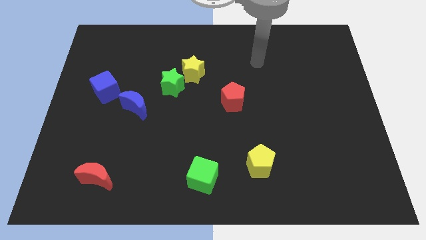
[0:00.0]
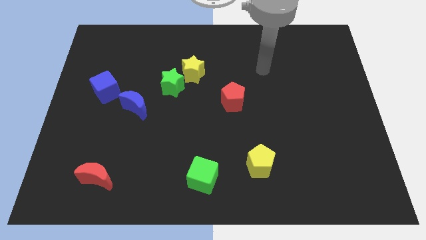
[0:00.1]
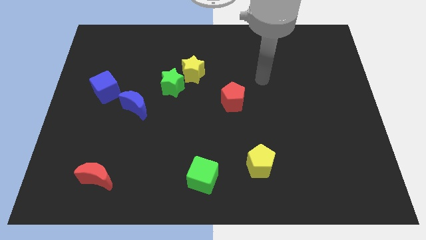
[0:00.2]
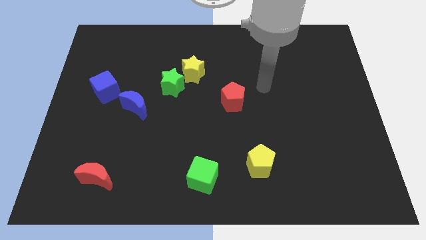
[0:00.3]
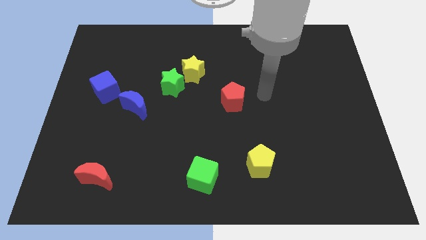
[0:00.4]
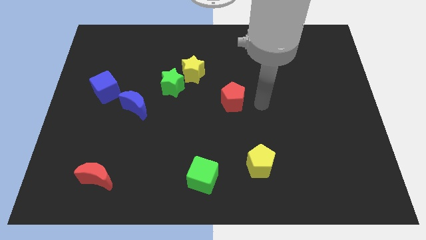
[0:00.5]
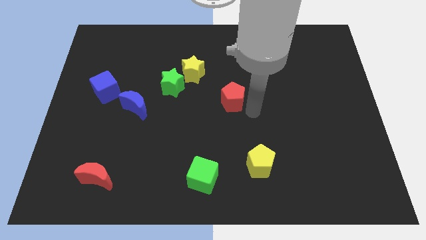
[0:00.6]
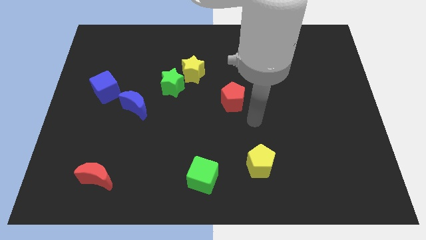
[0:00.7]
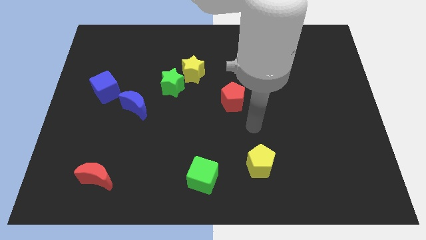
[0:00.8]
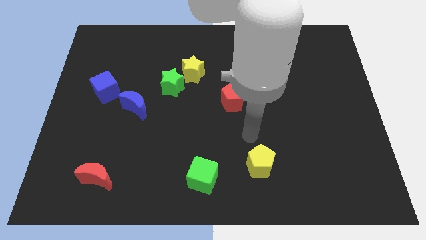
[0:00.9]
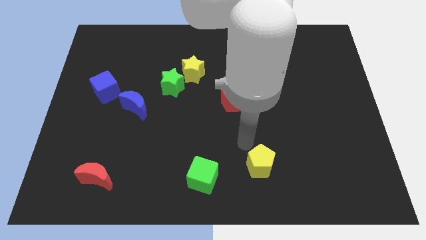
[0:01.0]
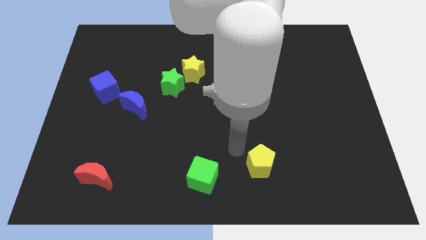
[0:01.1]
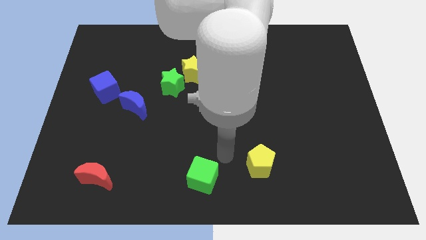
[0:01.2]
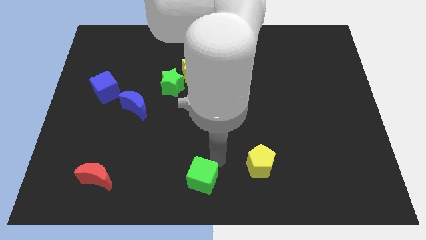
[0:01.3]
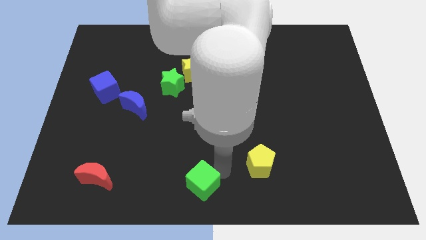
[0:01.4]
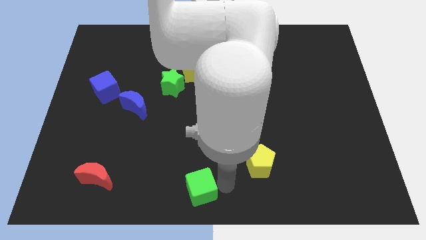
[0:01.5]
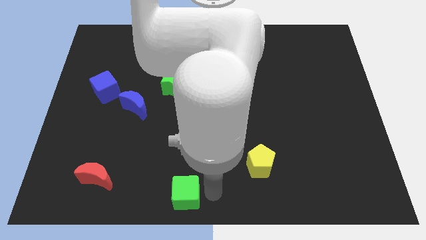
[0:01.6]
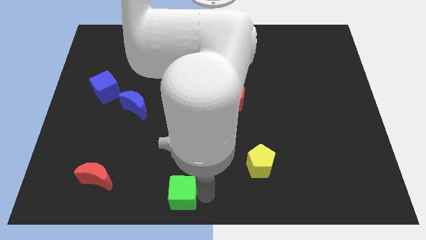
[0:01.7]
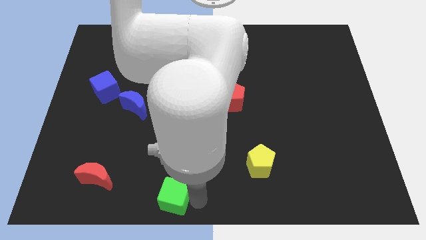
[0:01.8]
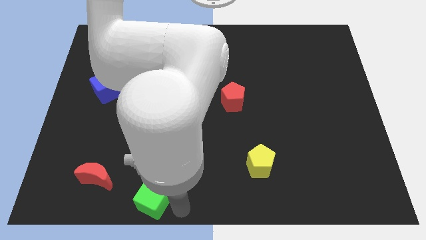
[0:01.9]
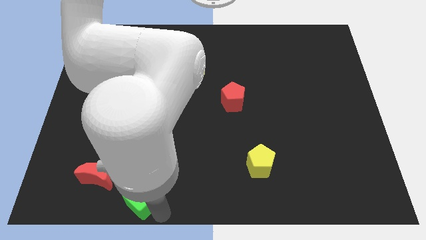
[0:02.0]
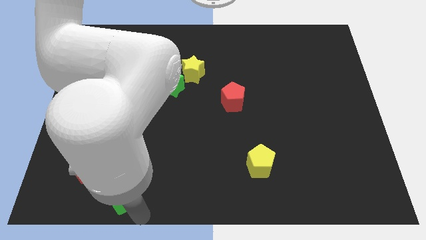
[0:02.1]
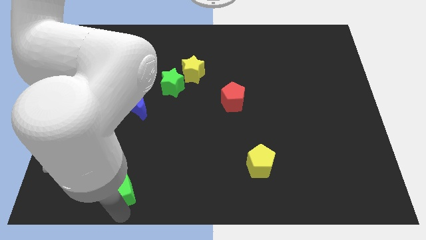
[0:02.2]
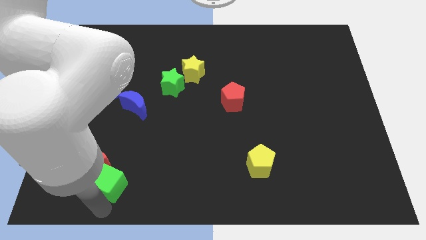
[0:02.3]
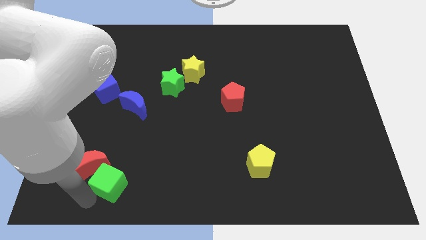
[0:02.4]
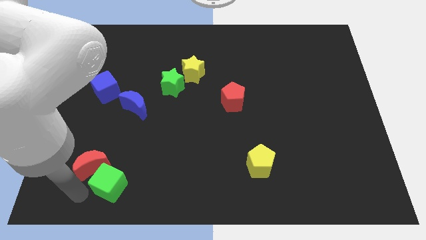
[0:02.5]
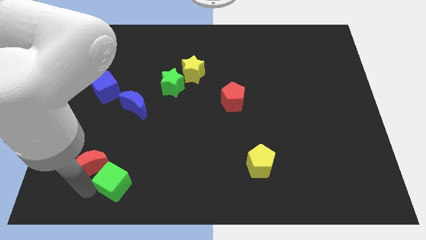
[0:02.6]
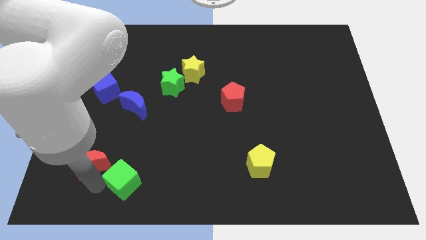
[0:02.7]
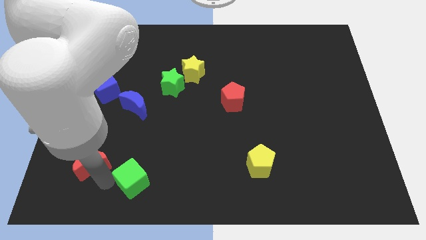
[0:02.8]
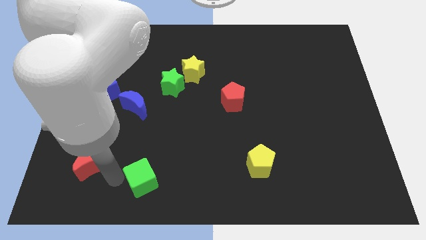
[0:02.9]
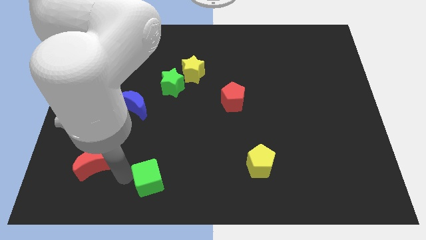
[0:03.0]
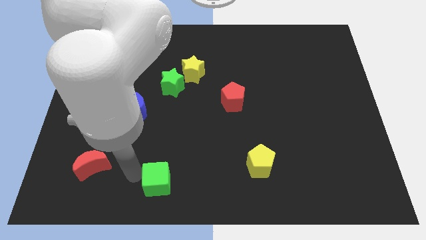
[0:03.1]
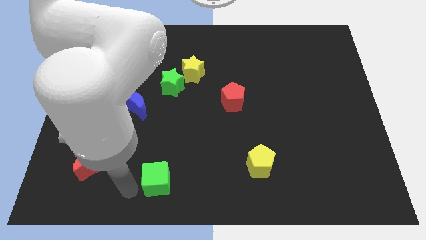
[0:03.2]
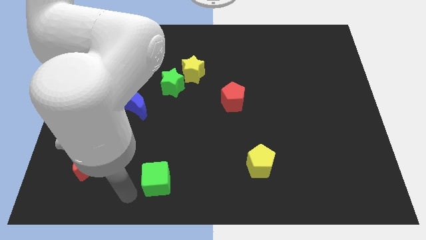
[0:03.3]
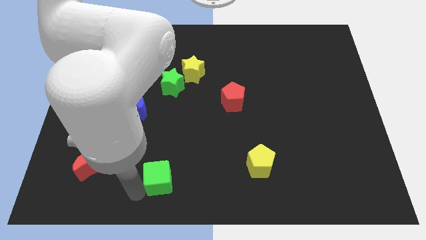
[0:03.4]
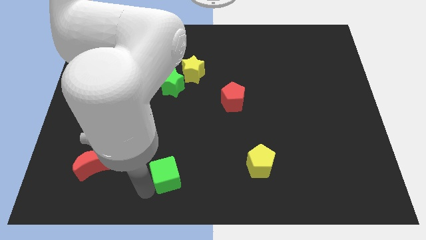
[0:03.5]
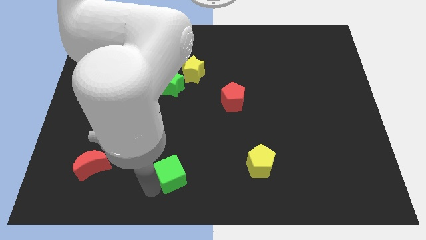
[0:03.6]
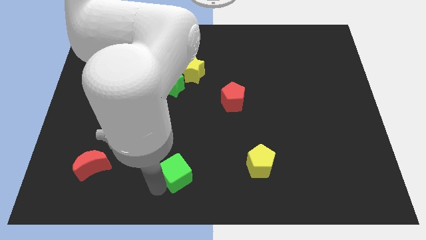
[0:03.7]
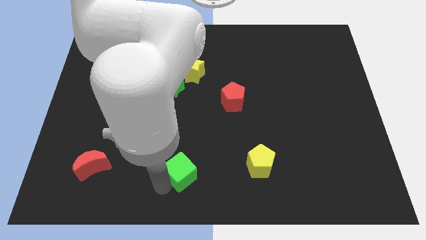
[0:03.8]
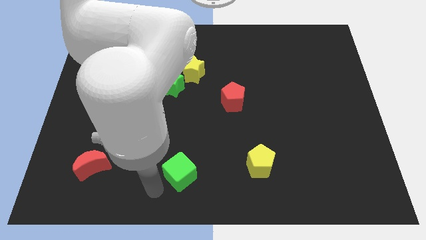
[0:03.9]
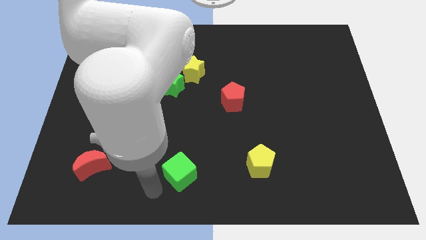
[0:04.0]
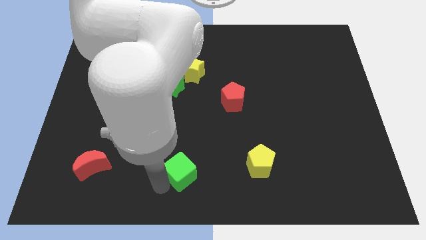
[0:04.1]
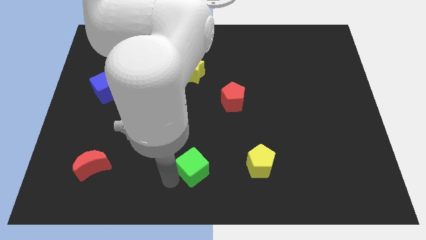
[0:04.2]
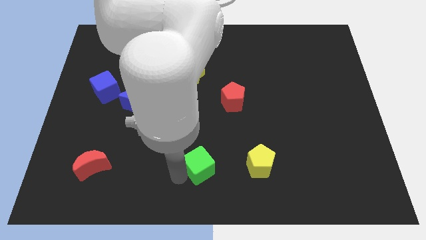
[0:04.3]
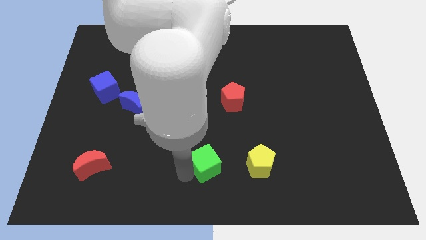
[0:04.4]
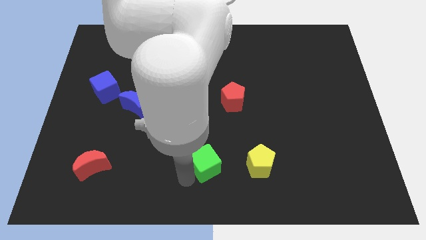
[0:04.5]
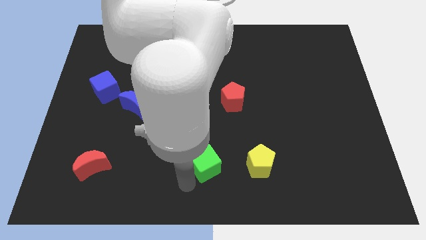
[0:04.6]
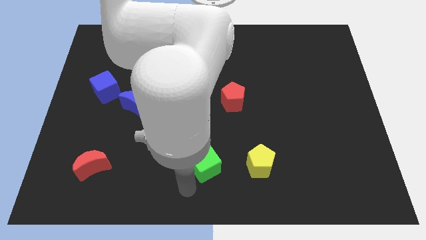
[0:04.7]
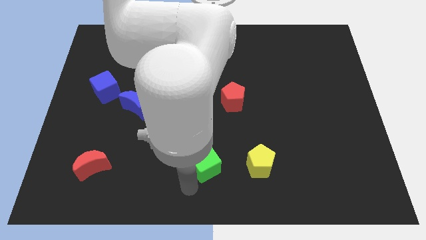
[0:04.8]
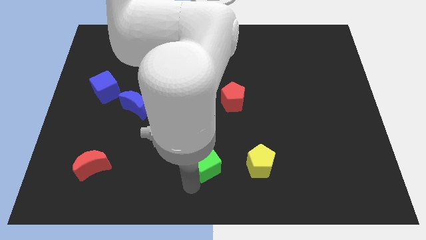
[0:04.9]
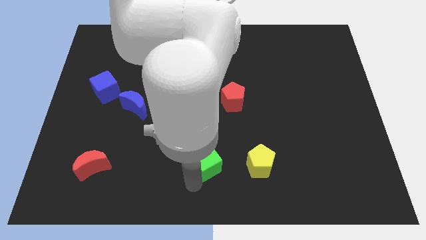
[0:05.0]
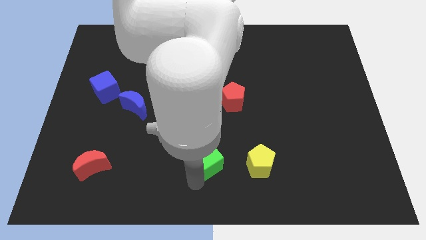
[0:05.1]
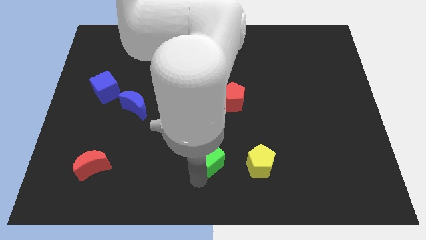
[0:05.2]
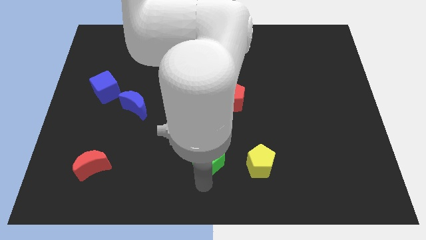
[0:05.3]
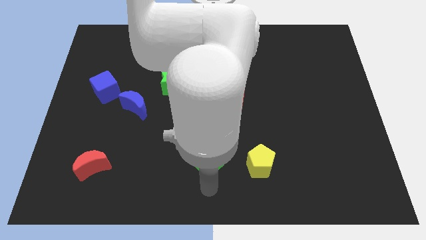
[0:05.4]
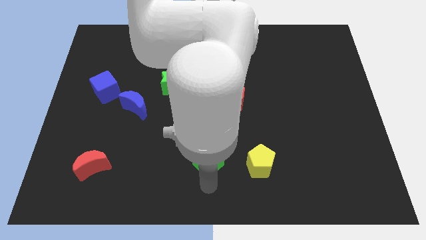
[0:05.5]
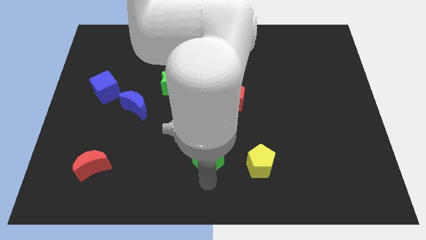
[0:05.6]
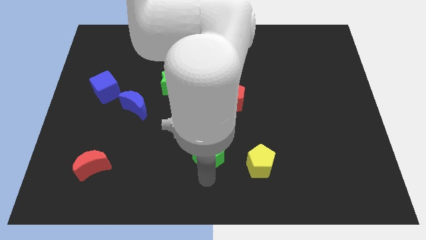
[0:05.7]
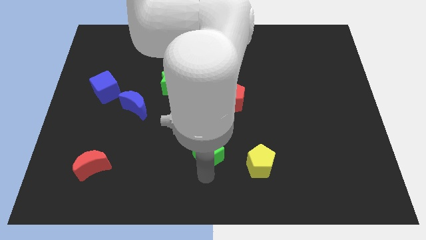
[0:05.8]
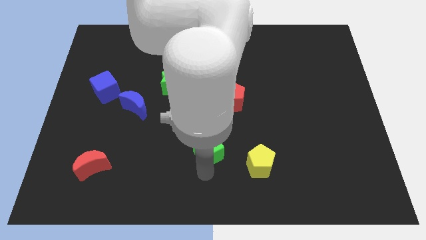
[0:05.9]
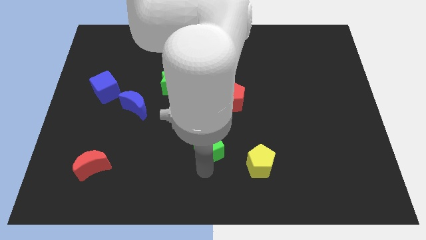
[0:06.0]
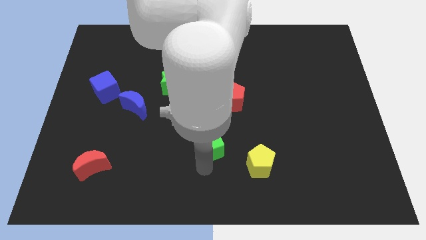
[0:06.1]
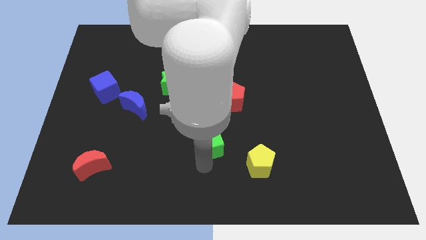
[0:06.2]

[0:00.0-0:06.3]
push the green cube to the center

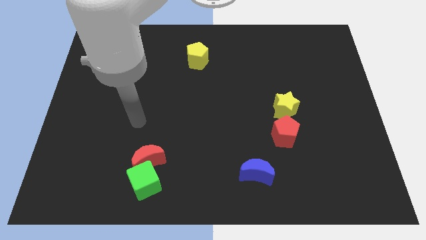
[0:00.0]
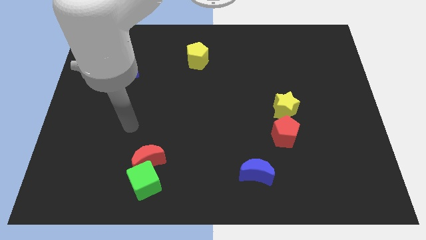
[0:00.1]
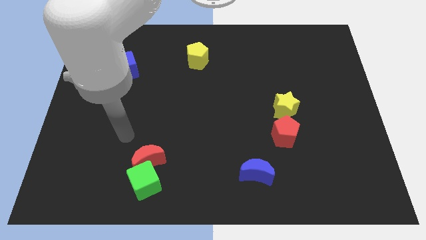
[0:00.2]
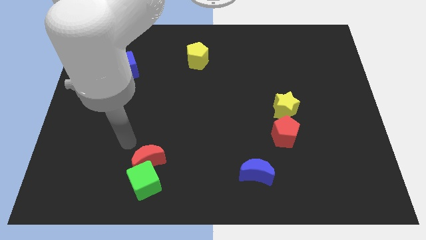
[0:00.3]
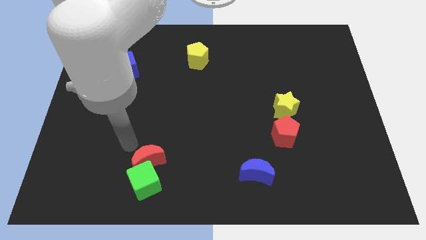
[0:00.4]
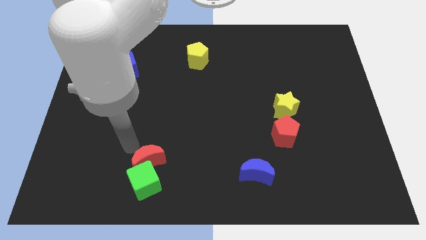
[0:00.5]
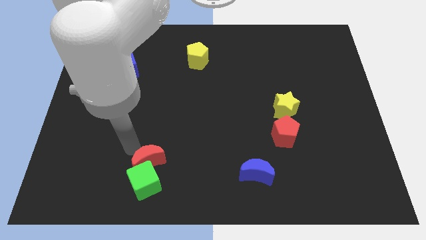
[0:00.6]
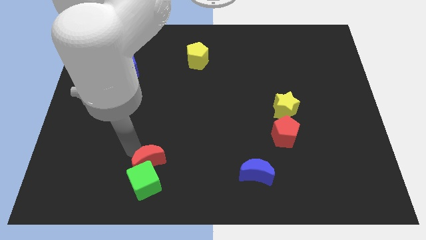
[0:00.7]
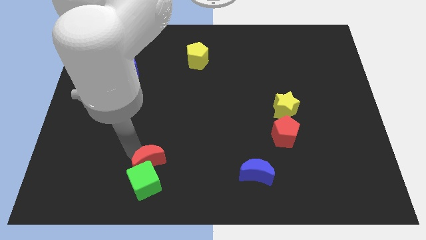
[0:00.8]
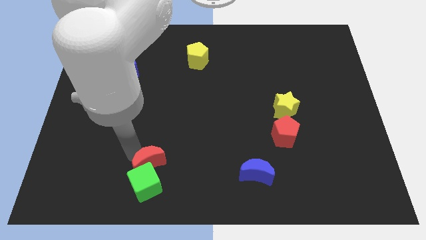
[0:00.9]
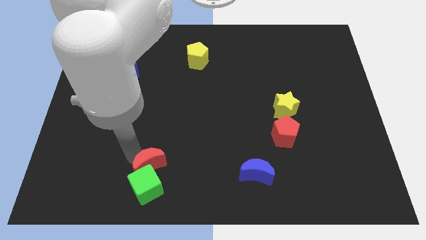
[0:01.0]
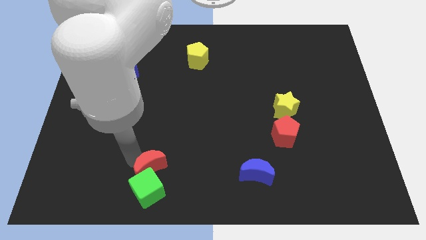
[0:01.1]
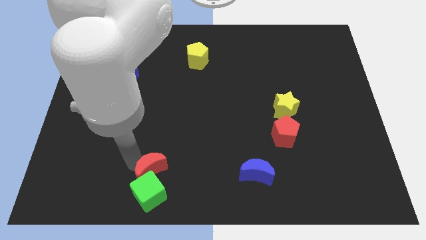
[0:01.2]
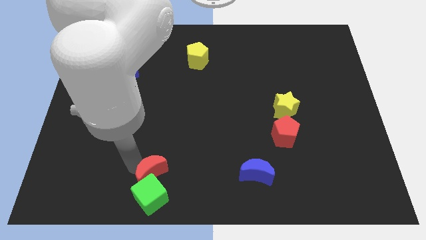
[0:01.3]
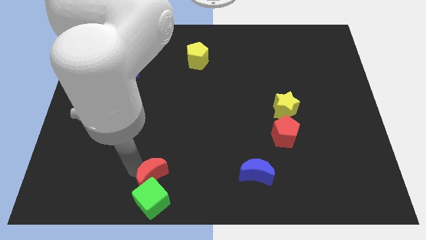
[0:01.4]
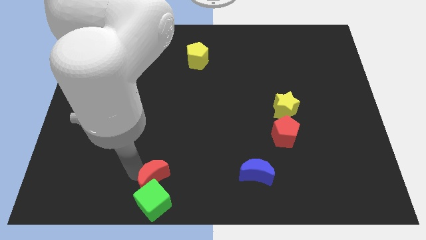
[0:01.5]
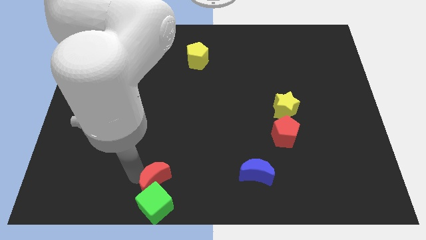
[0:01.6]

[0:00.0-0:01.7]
move the red moon to the bottom side
